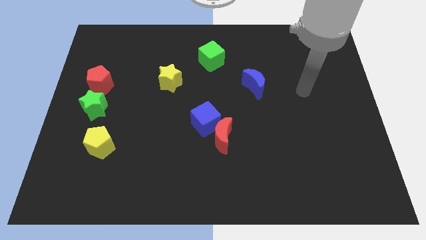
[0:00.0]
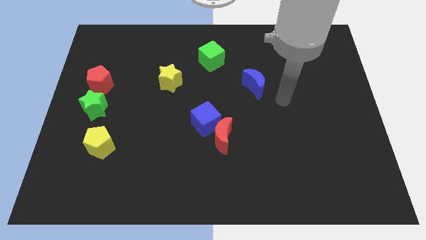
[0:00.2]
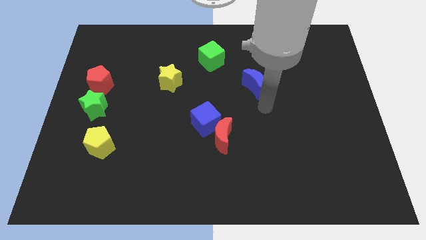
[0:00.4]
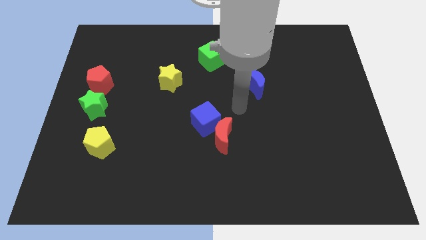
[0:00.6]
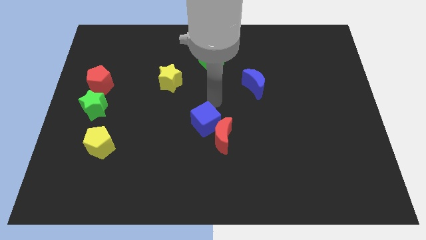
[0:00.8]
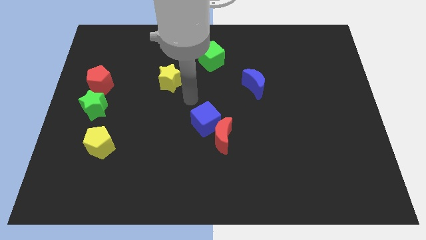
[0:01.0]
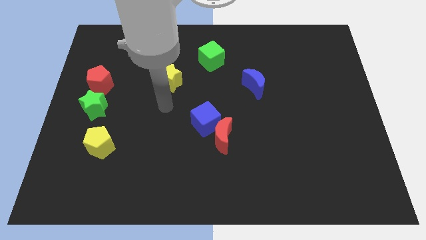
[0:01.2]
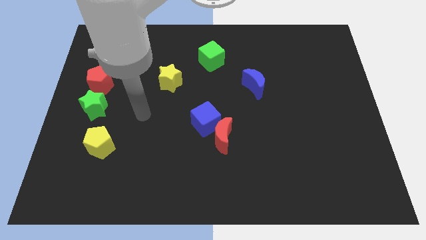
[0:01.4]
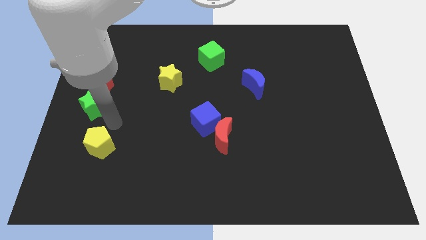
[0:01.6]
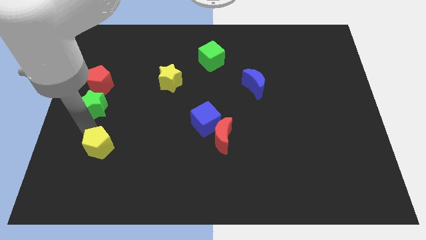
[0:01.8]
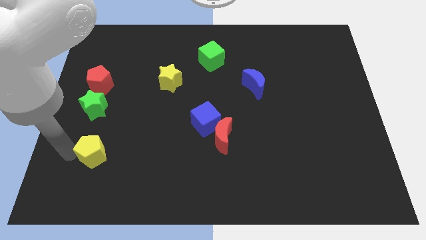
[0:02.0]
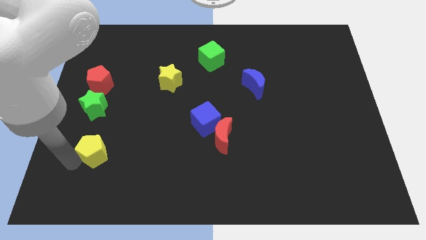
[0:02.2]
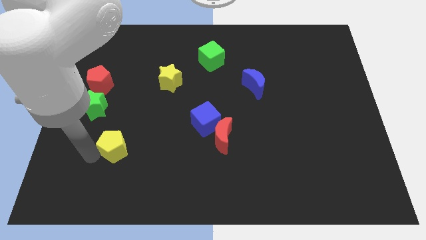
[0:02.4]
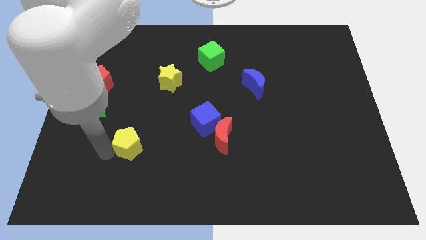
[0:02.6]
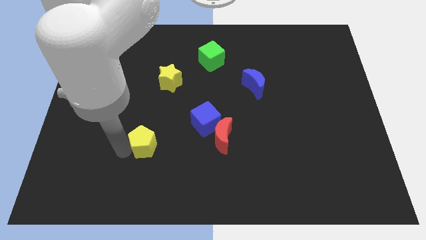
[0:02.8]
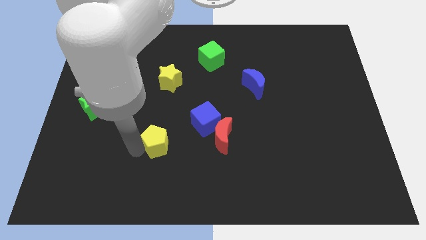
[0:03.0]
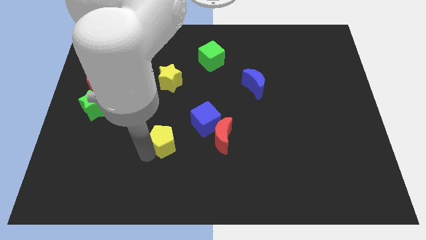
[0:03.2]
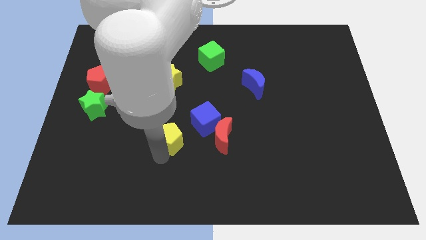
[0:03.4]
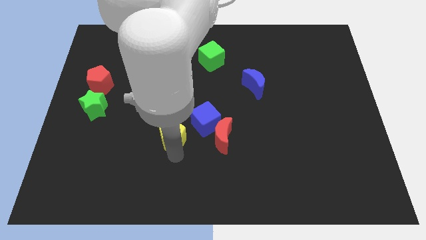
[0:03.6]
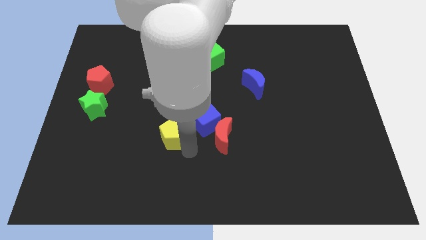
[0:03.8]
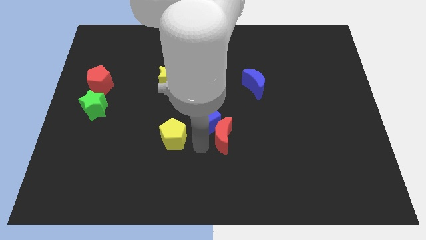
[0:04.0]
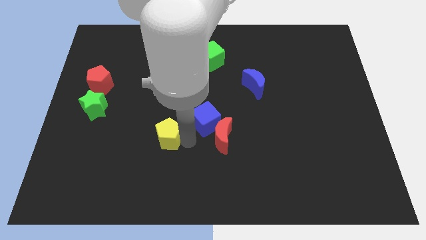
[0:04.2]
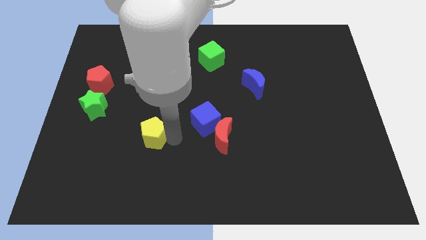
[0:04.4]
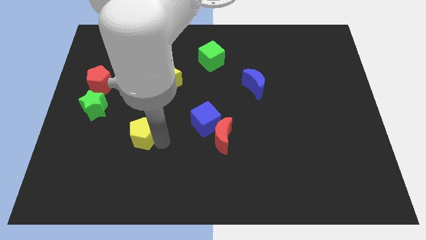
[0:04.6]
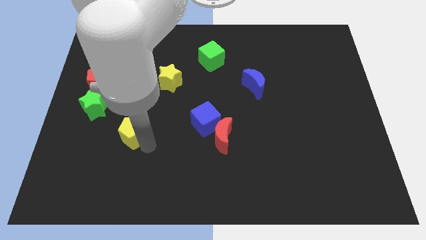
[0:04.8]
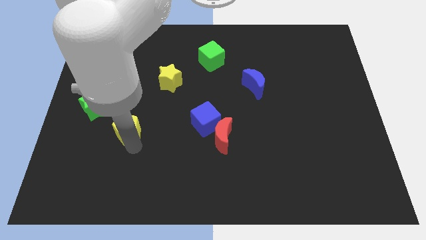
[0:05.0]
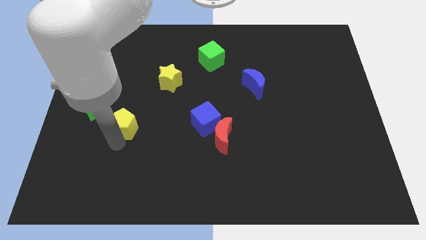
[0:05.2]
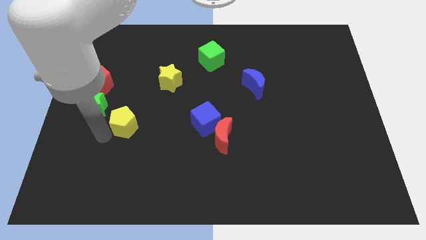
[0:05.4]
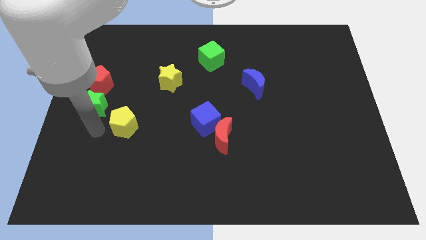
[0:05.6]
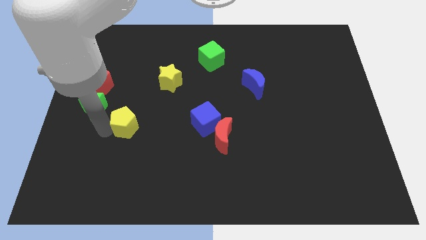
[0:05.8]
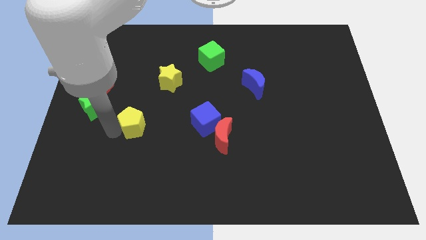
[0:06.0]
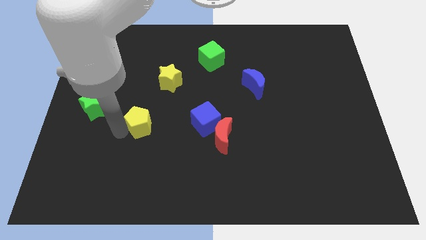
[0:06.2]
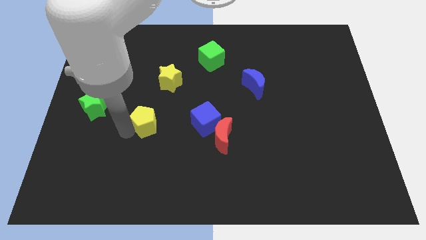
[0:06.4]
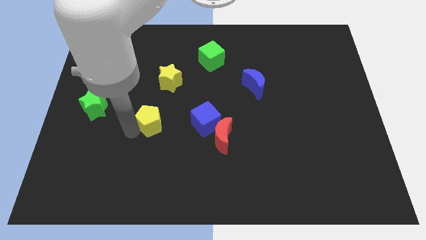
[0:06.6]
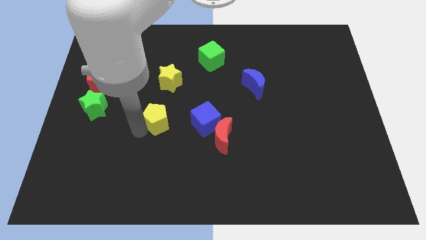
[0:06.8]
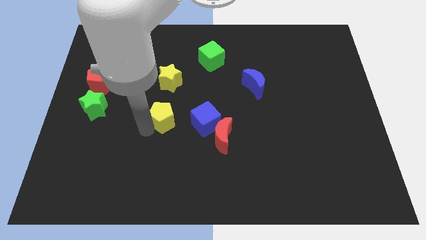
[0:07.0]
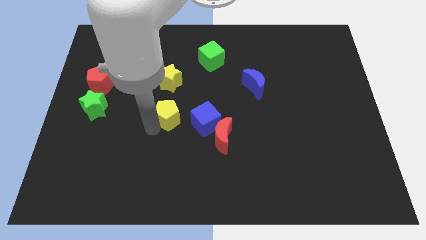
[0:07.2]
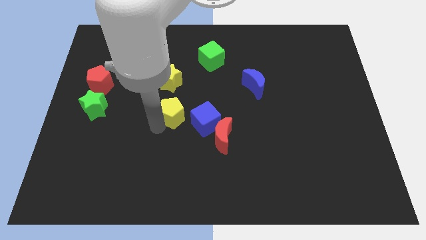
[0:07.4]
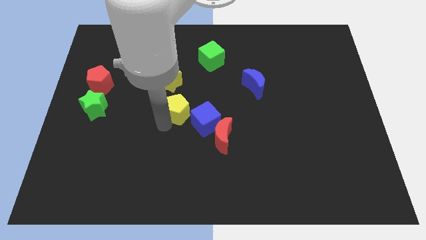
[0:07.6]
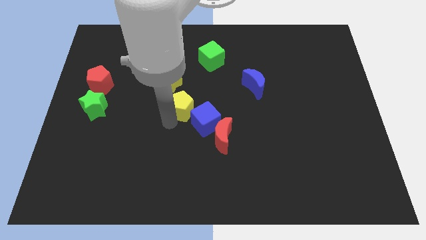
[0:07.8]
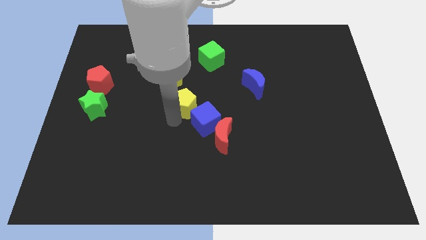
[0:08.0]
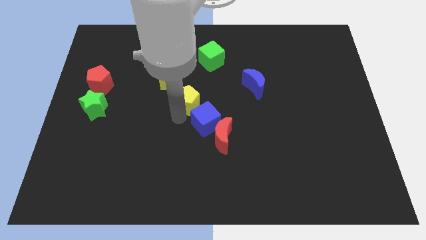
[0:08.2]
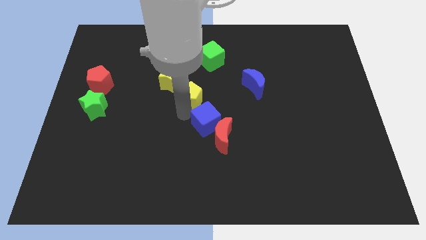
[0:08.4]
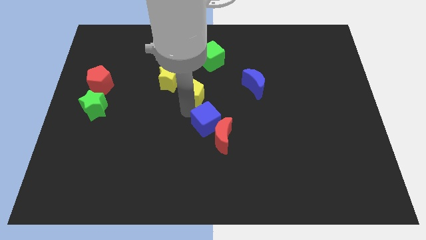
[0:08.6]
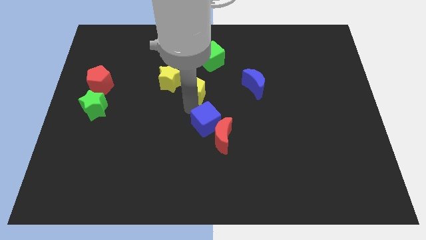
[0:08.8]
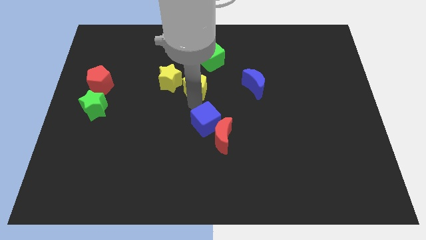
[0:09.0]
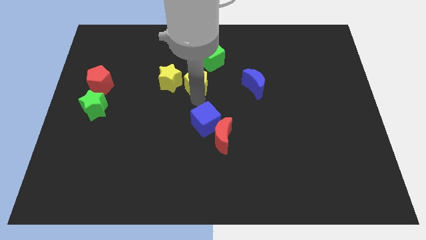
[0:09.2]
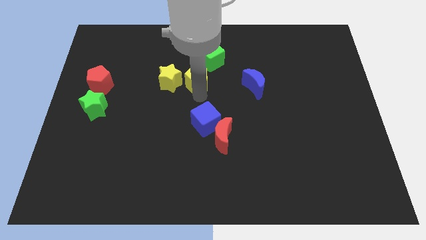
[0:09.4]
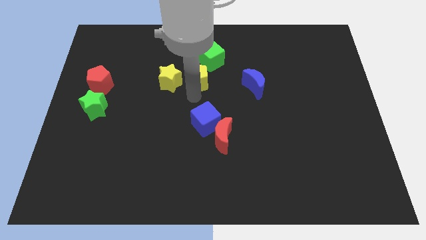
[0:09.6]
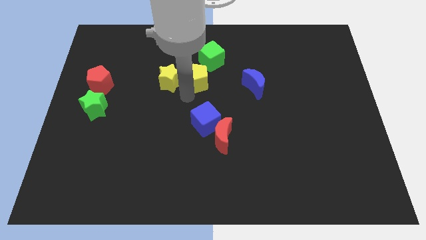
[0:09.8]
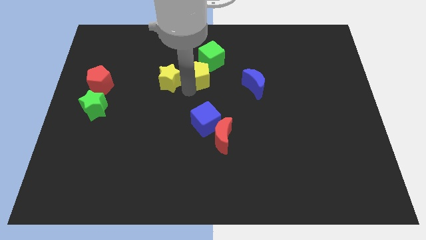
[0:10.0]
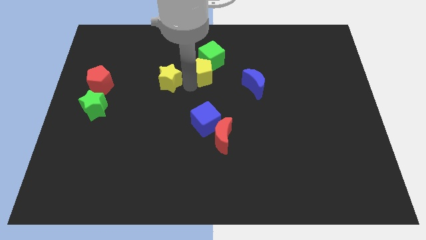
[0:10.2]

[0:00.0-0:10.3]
slide the yellow pentagon towards the green cube

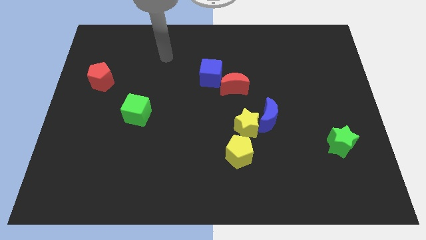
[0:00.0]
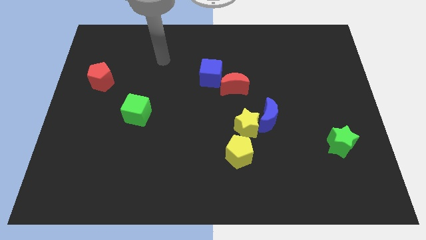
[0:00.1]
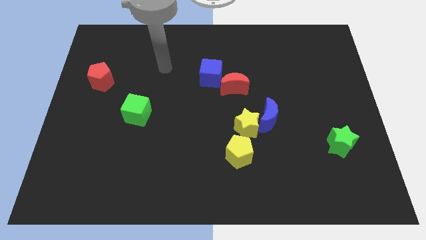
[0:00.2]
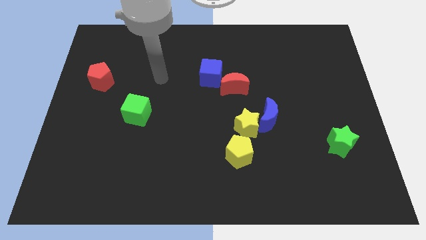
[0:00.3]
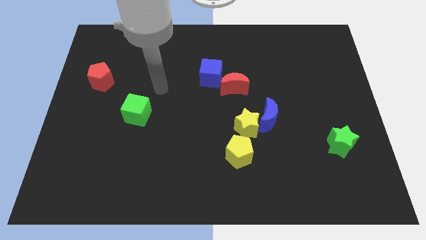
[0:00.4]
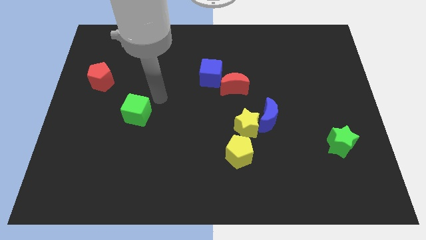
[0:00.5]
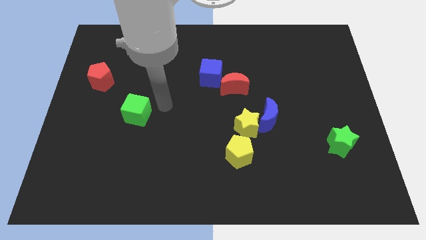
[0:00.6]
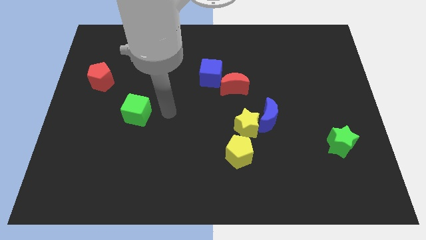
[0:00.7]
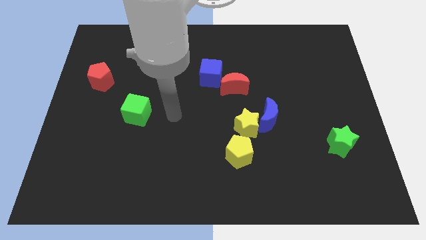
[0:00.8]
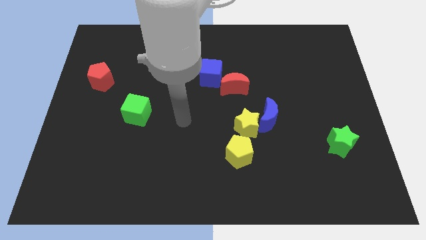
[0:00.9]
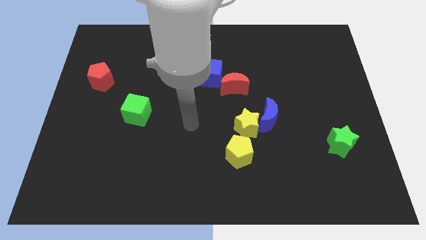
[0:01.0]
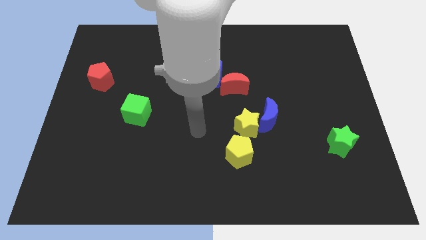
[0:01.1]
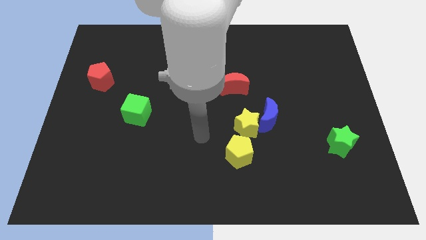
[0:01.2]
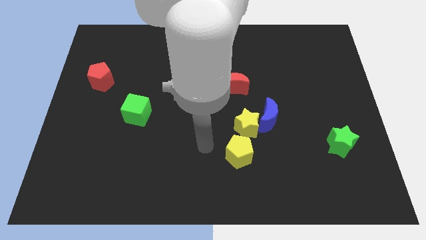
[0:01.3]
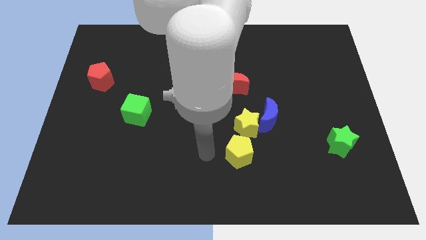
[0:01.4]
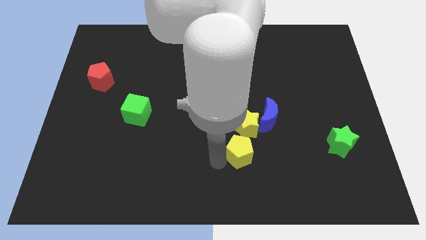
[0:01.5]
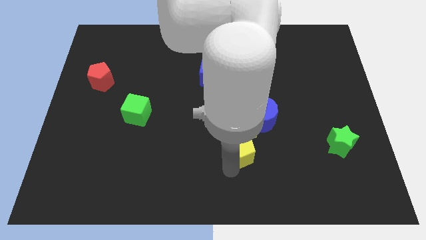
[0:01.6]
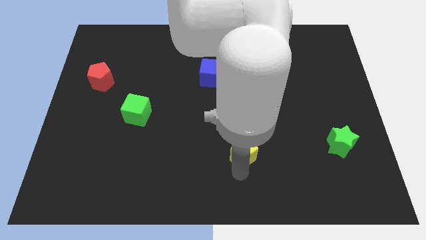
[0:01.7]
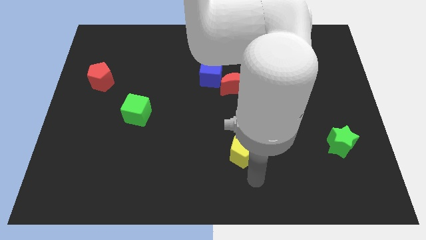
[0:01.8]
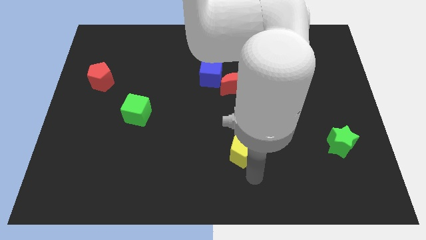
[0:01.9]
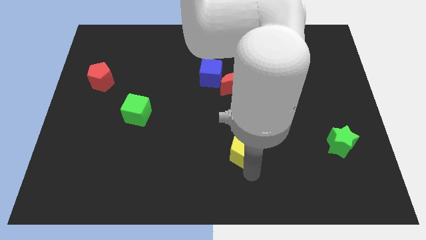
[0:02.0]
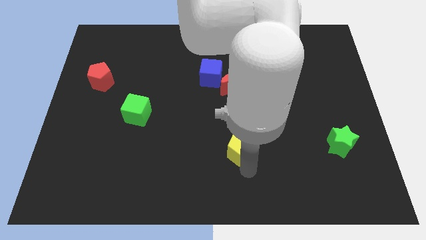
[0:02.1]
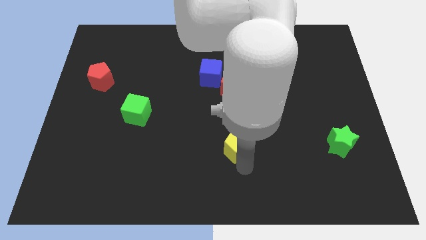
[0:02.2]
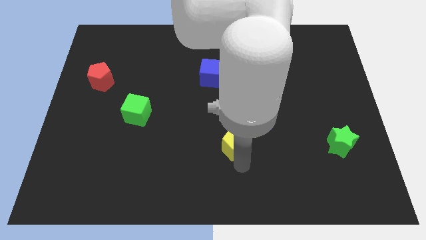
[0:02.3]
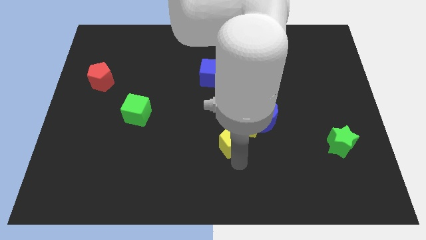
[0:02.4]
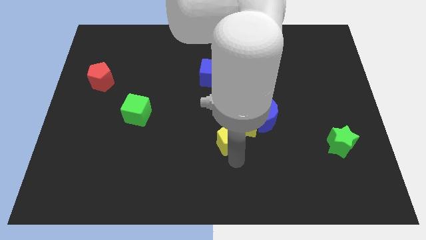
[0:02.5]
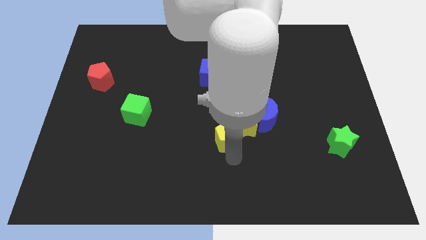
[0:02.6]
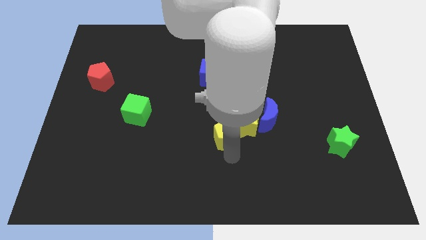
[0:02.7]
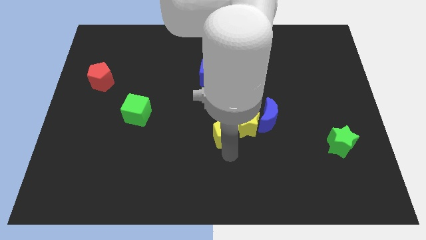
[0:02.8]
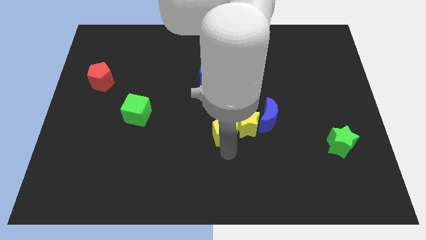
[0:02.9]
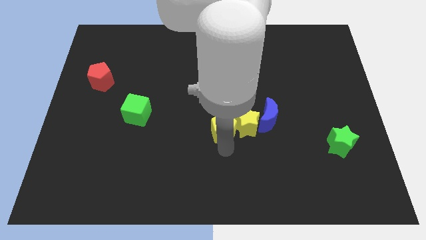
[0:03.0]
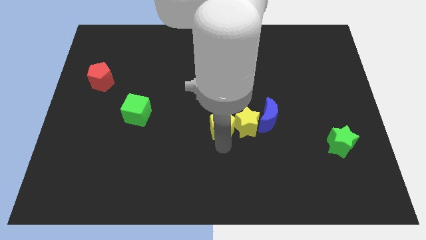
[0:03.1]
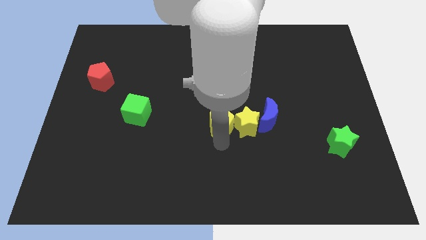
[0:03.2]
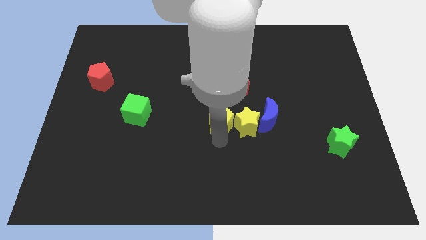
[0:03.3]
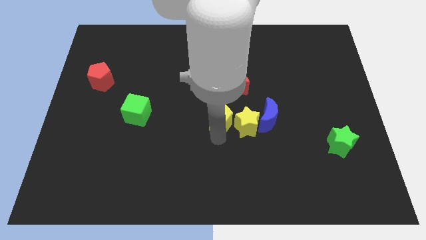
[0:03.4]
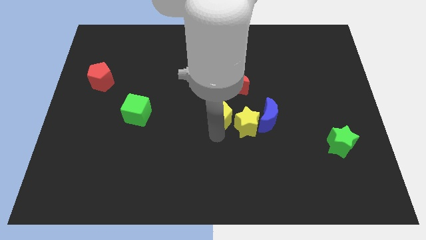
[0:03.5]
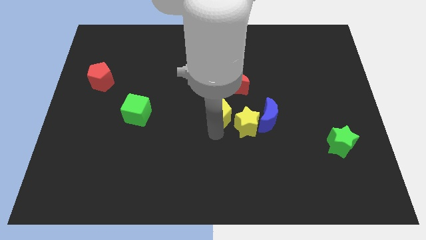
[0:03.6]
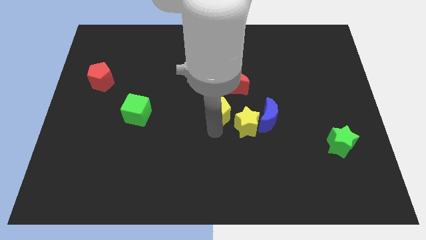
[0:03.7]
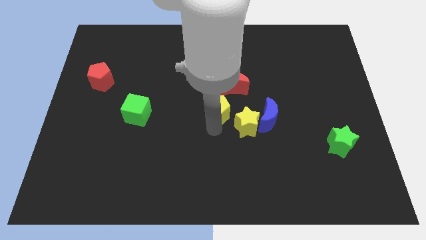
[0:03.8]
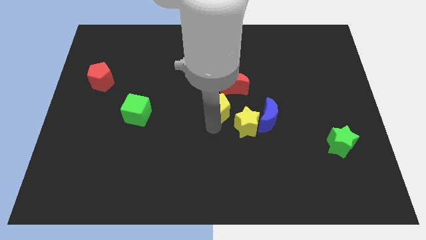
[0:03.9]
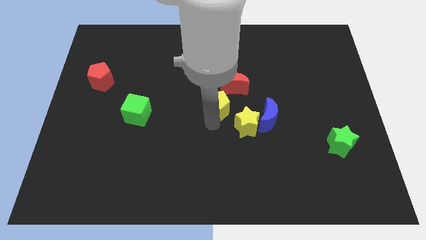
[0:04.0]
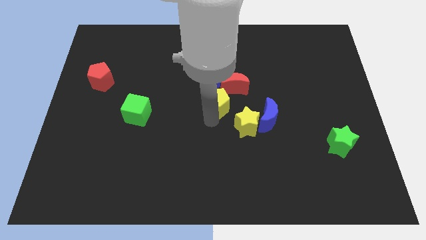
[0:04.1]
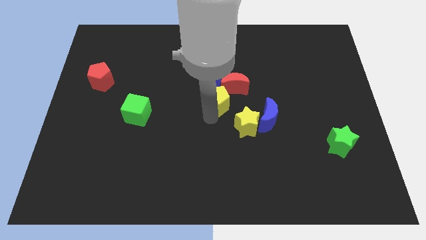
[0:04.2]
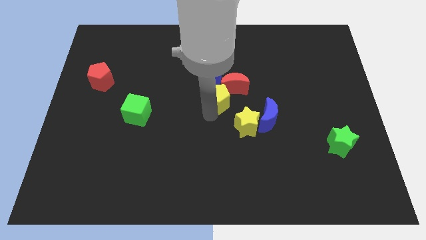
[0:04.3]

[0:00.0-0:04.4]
put the yellow pentagon next to the red moon
